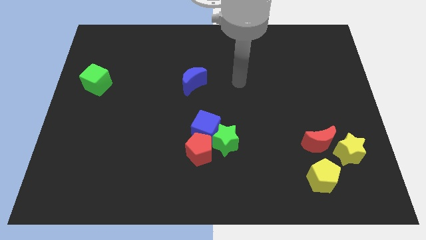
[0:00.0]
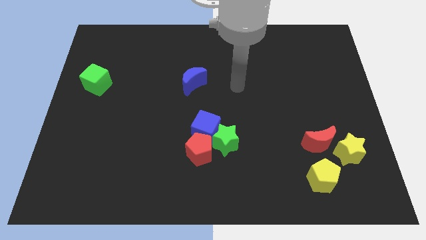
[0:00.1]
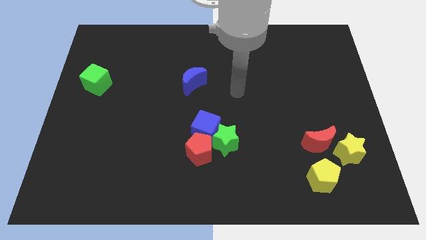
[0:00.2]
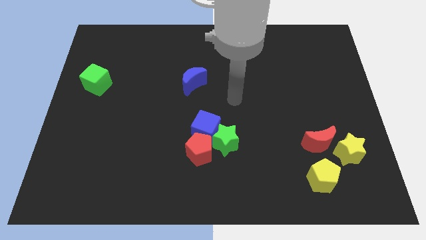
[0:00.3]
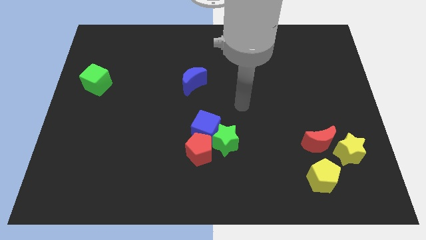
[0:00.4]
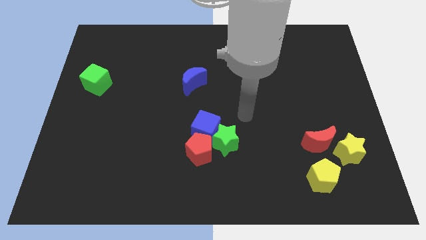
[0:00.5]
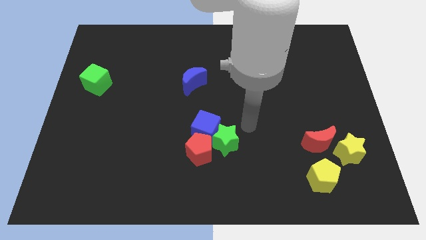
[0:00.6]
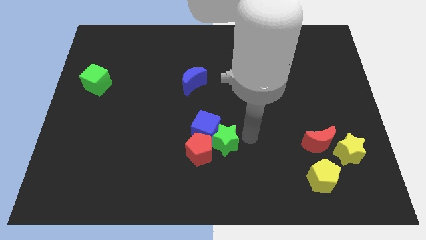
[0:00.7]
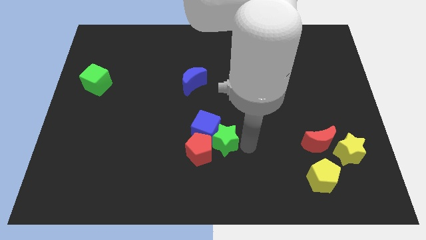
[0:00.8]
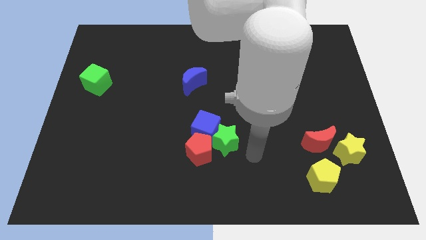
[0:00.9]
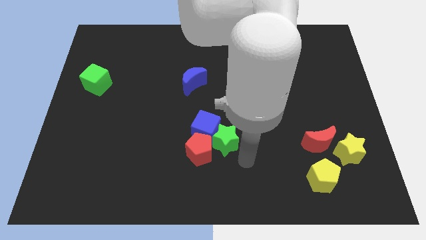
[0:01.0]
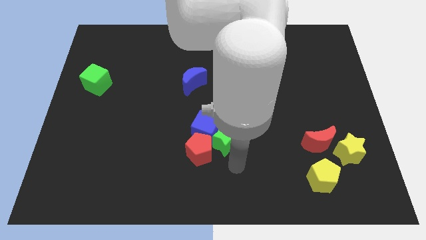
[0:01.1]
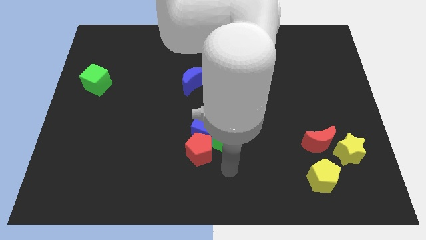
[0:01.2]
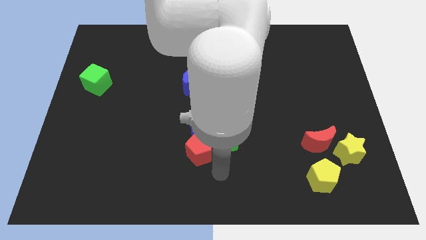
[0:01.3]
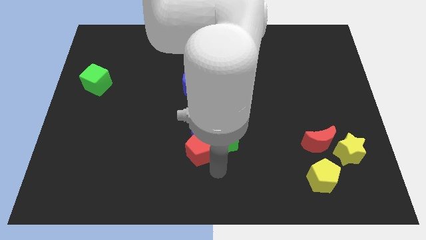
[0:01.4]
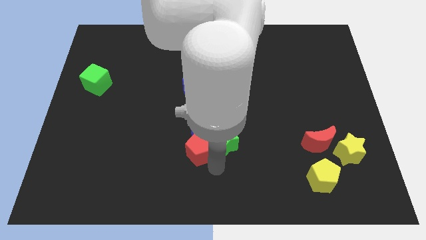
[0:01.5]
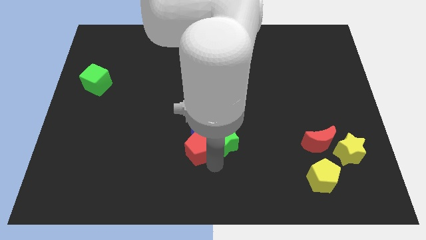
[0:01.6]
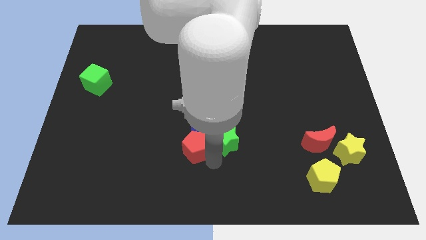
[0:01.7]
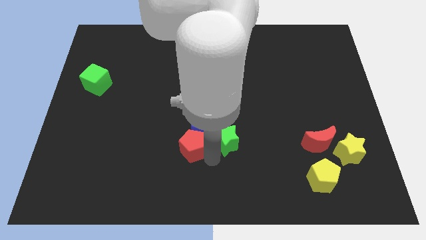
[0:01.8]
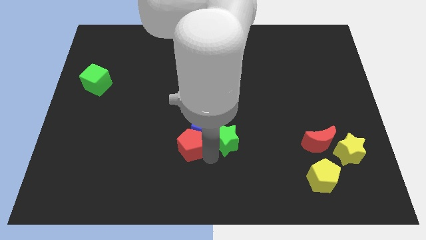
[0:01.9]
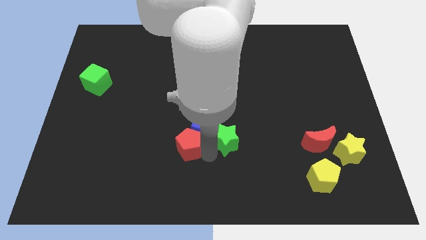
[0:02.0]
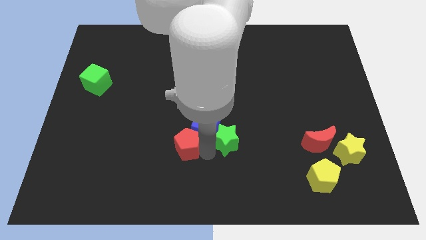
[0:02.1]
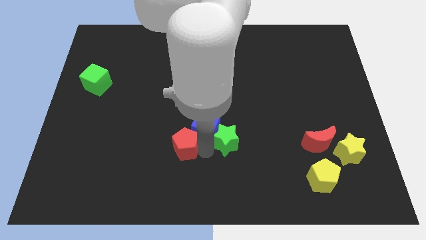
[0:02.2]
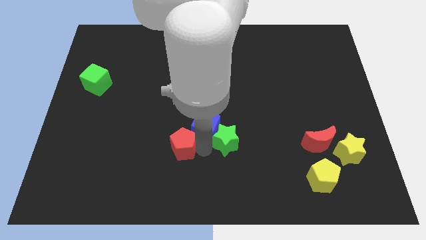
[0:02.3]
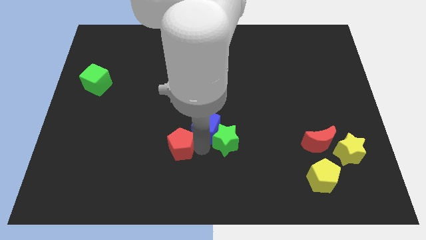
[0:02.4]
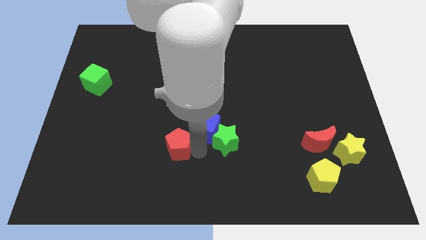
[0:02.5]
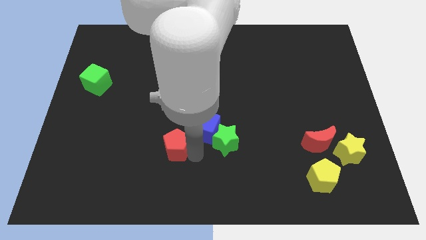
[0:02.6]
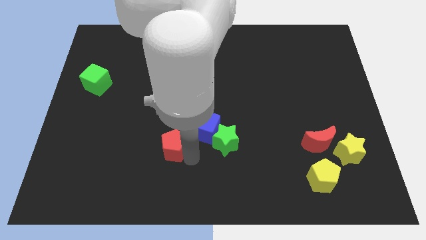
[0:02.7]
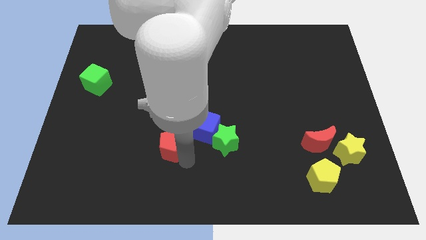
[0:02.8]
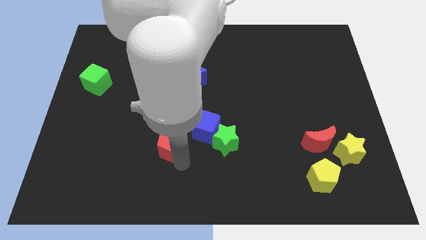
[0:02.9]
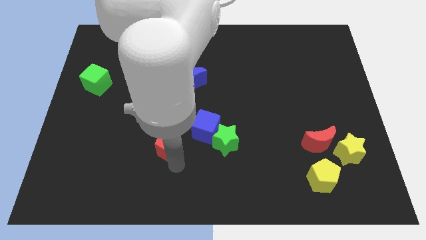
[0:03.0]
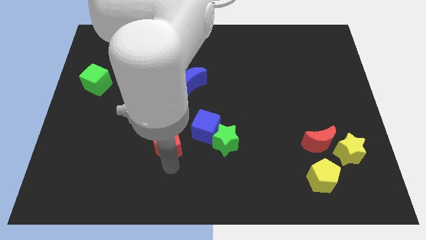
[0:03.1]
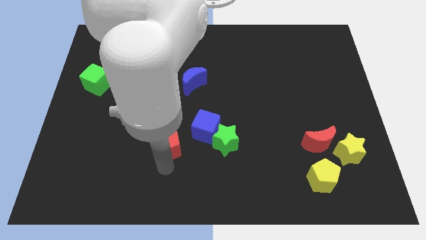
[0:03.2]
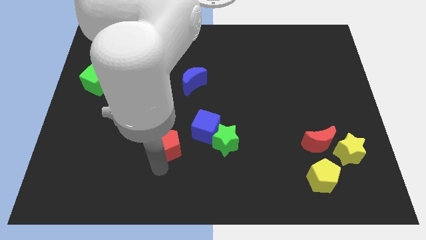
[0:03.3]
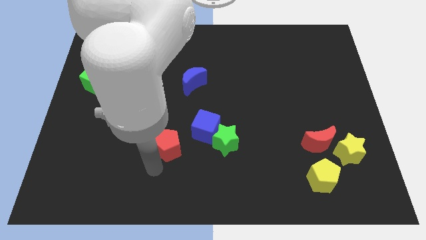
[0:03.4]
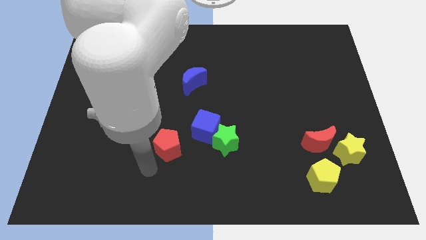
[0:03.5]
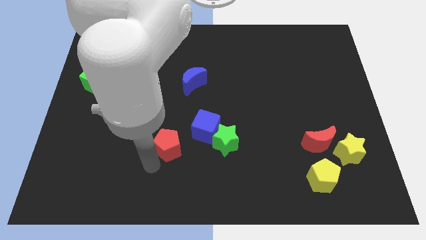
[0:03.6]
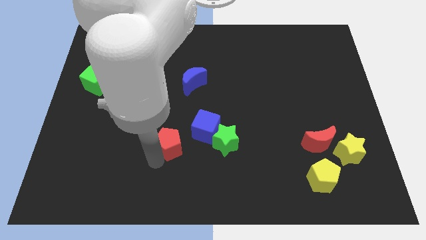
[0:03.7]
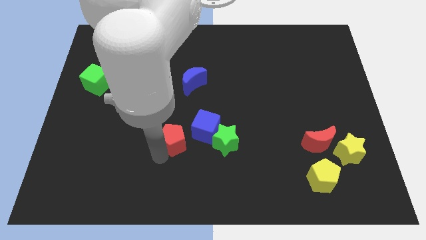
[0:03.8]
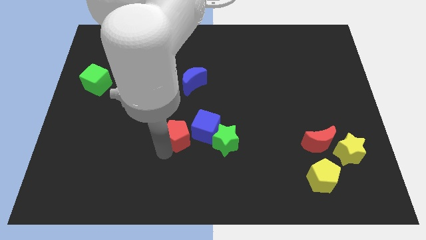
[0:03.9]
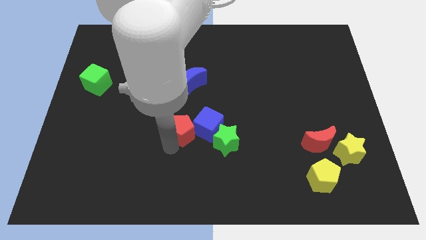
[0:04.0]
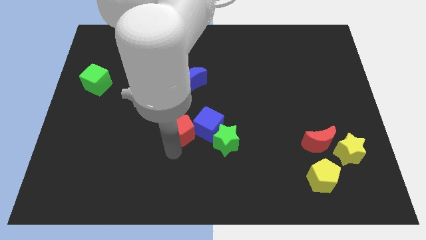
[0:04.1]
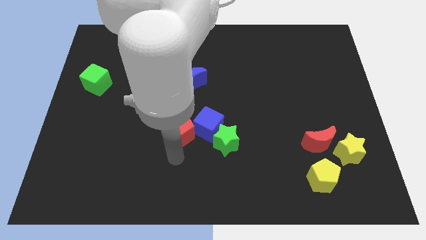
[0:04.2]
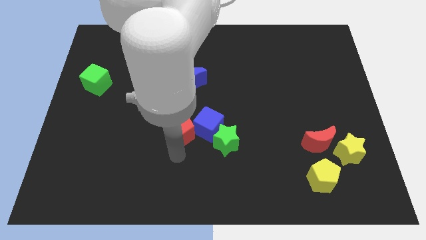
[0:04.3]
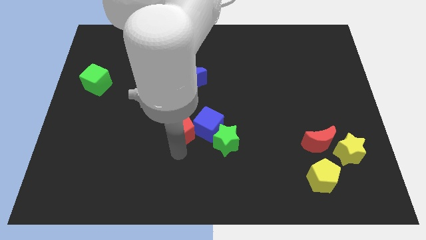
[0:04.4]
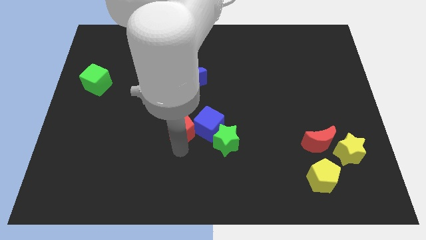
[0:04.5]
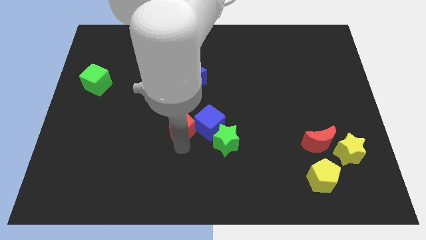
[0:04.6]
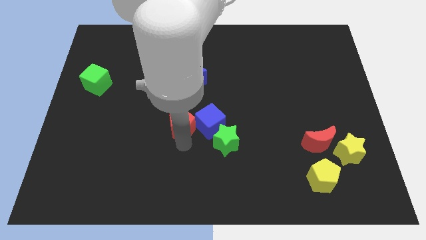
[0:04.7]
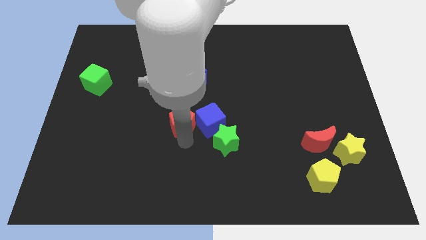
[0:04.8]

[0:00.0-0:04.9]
push the red pentagon diagonally up and to the left of the blue cube

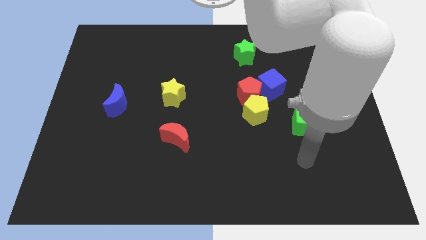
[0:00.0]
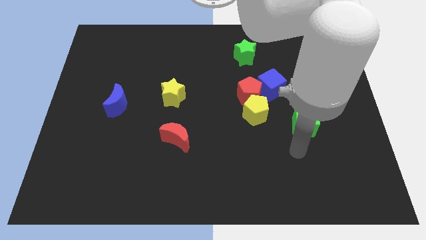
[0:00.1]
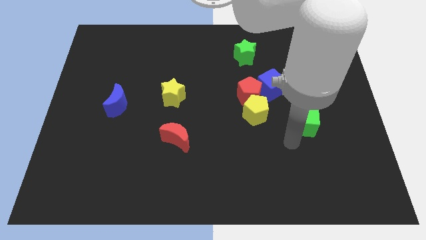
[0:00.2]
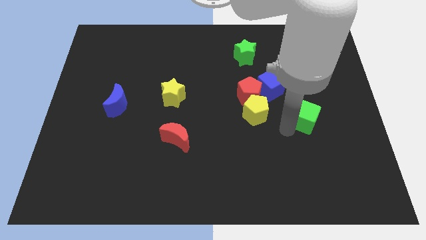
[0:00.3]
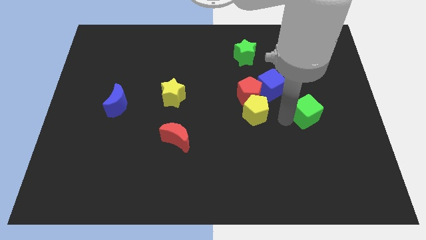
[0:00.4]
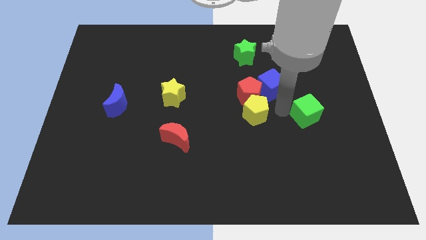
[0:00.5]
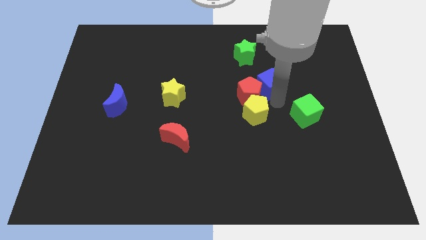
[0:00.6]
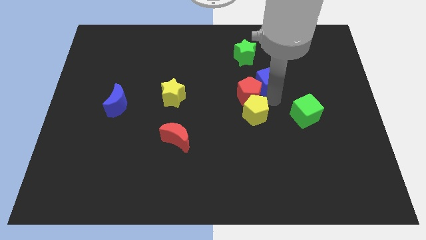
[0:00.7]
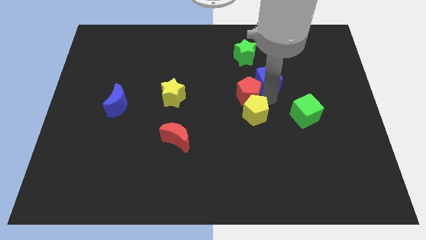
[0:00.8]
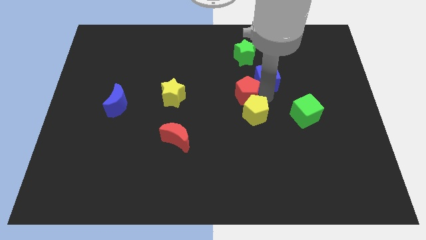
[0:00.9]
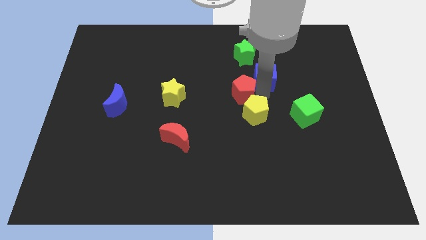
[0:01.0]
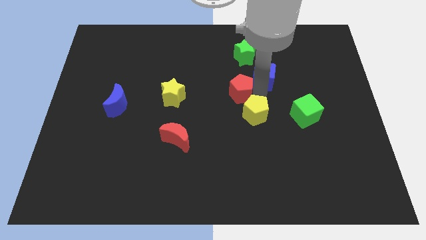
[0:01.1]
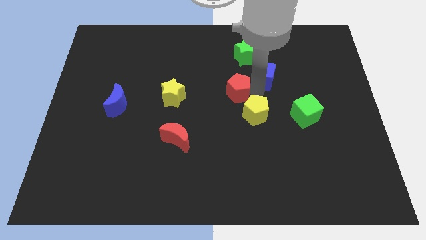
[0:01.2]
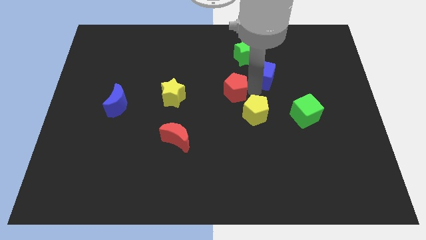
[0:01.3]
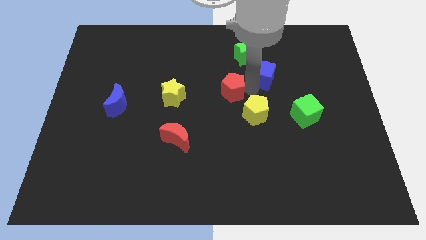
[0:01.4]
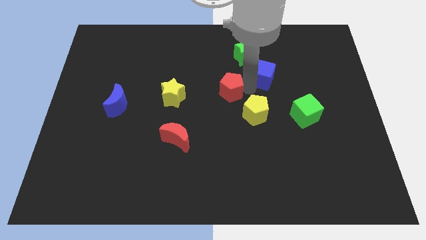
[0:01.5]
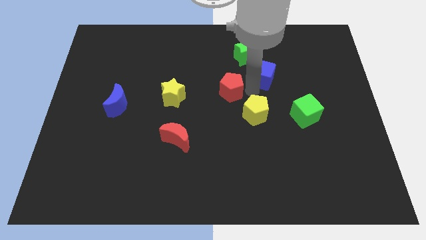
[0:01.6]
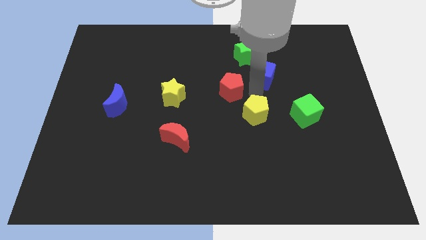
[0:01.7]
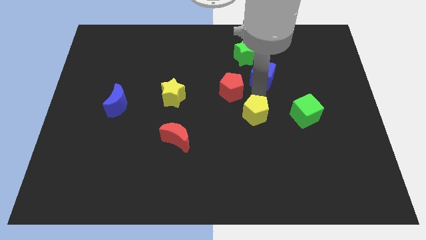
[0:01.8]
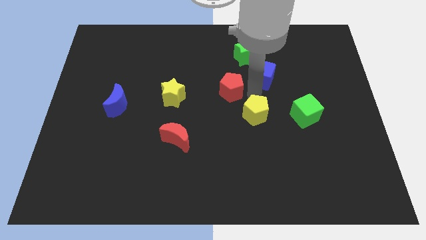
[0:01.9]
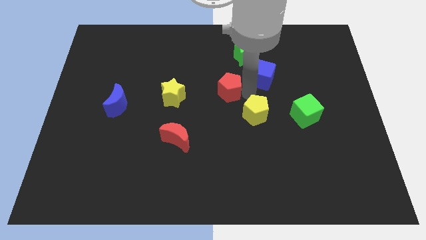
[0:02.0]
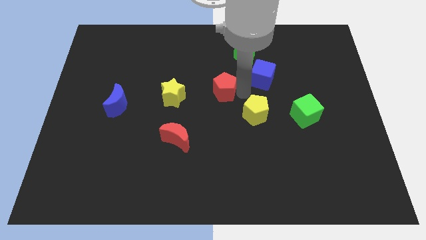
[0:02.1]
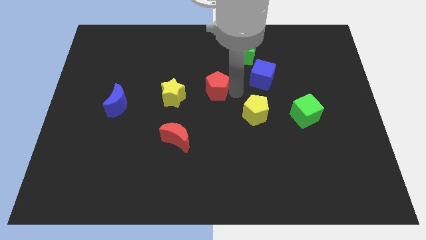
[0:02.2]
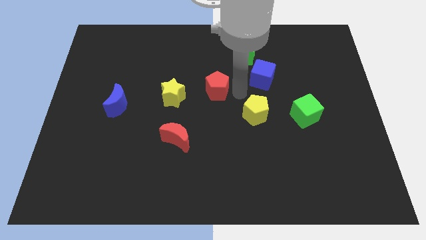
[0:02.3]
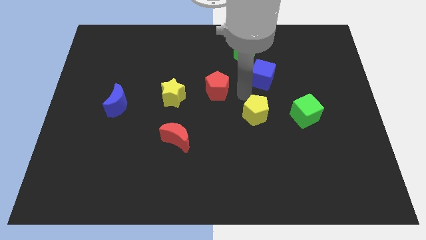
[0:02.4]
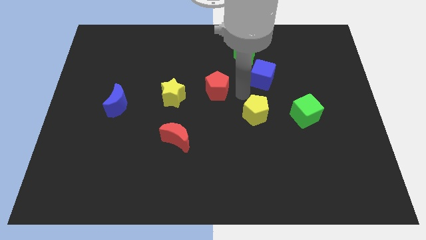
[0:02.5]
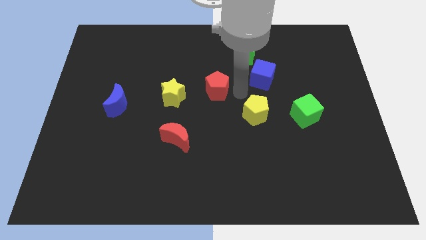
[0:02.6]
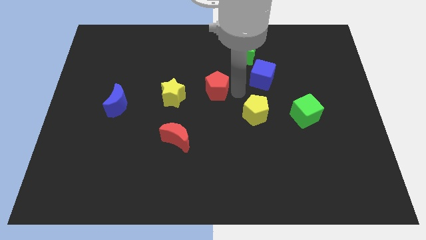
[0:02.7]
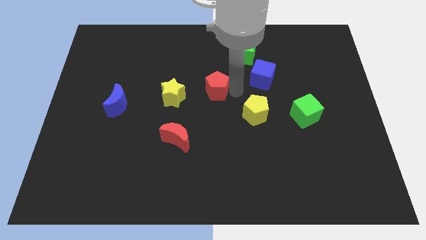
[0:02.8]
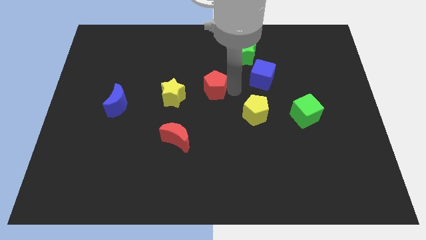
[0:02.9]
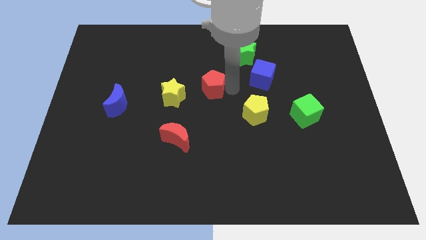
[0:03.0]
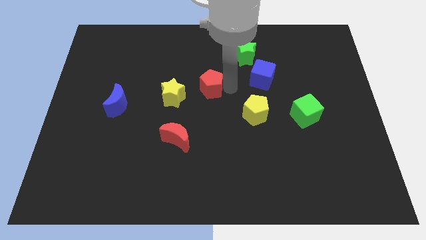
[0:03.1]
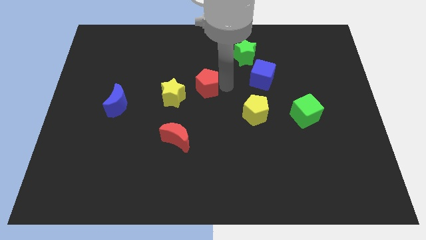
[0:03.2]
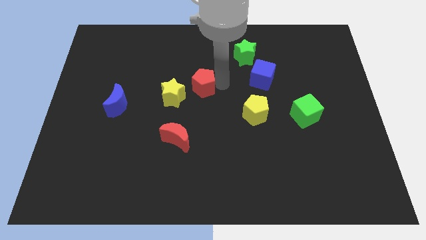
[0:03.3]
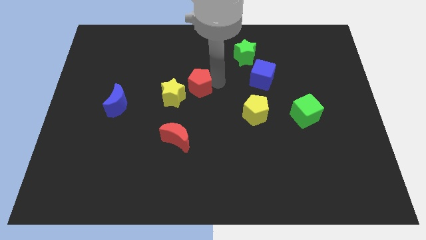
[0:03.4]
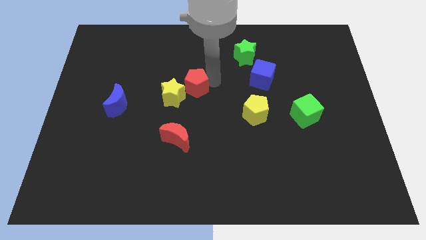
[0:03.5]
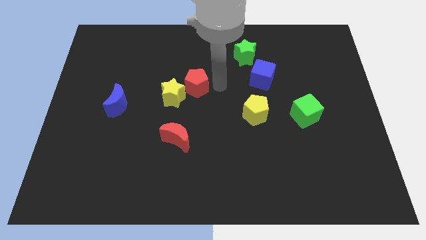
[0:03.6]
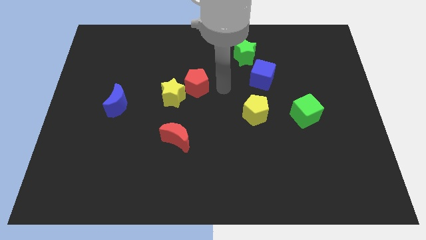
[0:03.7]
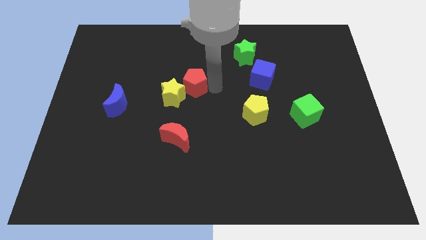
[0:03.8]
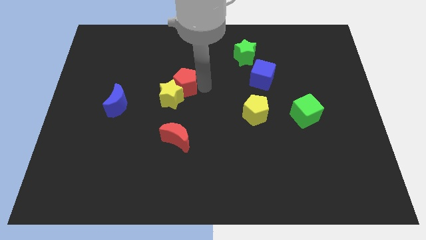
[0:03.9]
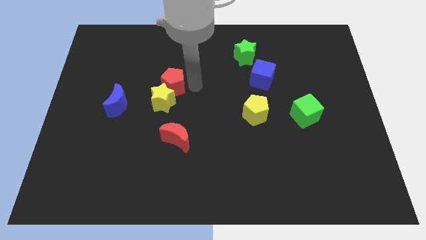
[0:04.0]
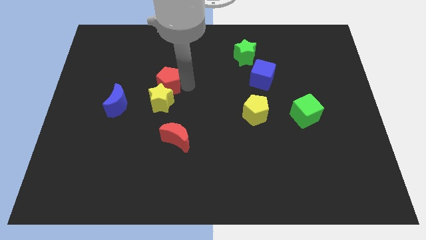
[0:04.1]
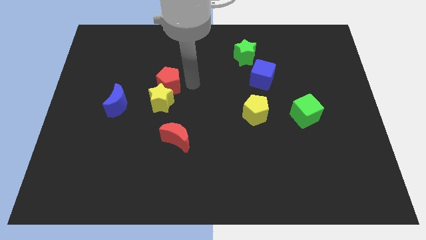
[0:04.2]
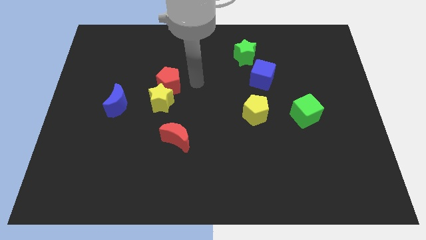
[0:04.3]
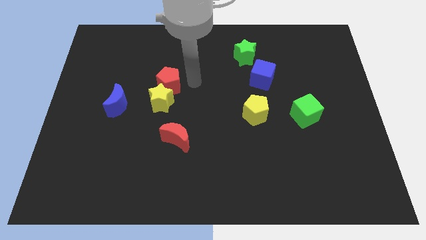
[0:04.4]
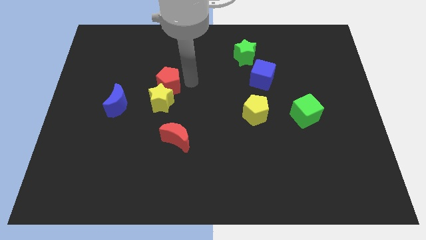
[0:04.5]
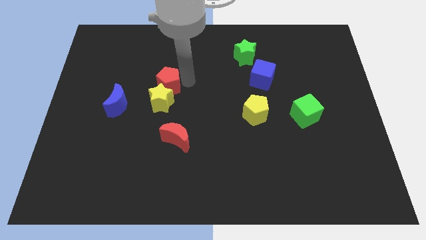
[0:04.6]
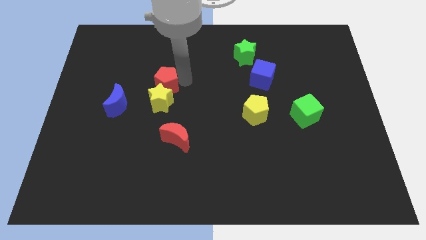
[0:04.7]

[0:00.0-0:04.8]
slide the red pentagon to the top left side of the yellow star
